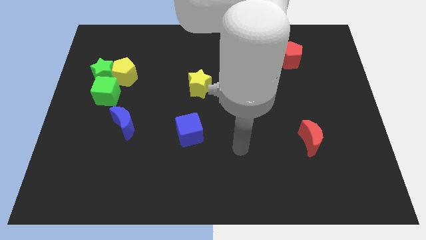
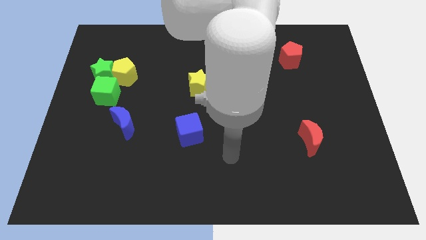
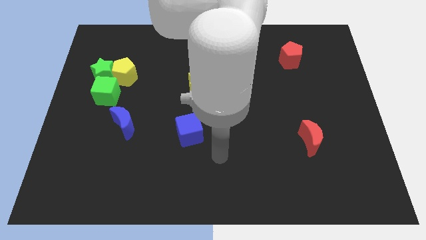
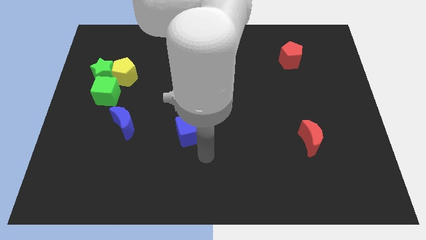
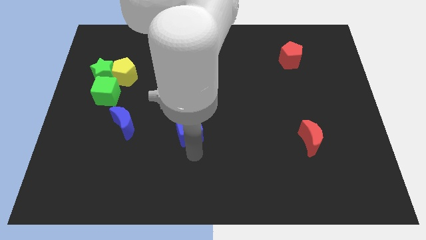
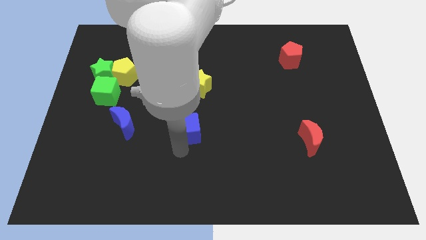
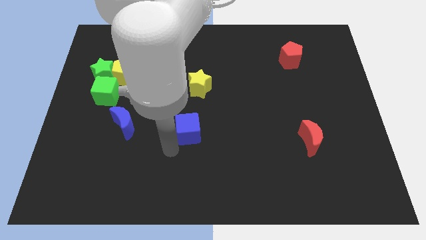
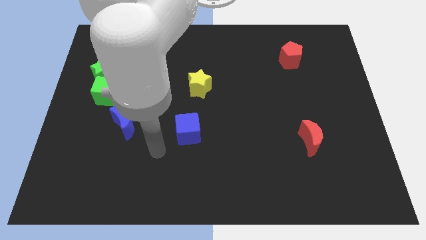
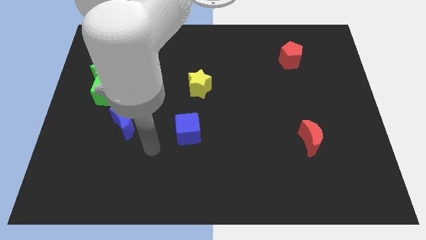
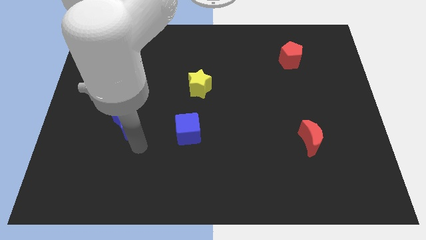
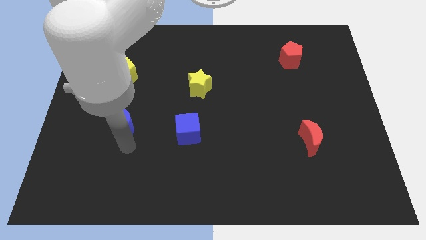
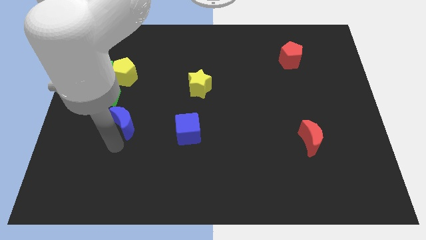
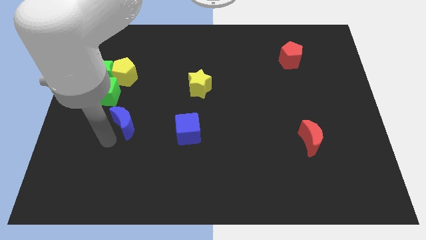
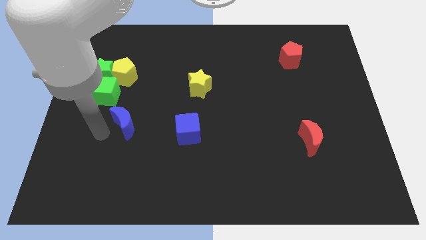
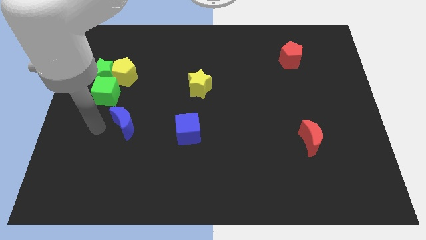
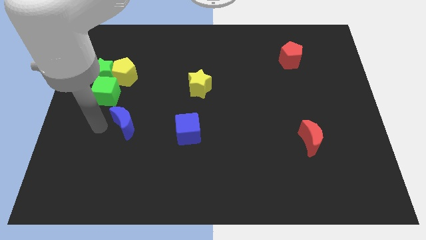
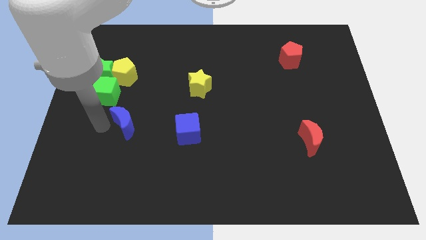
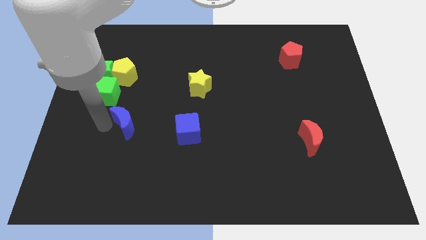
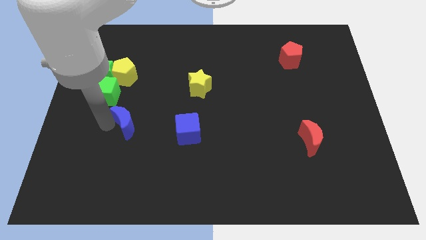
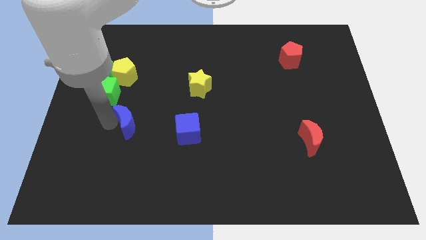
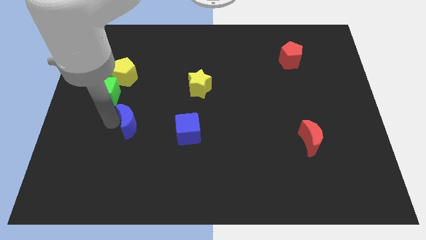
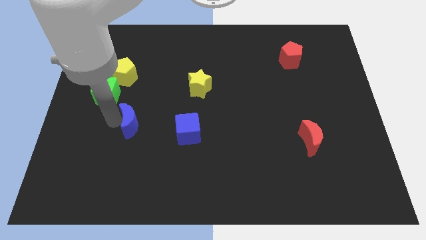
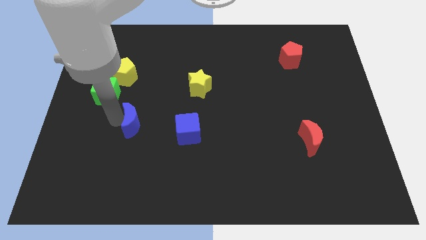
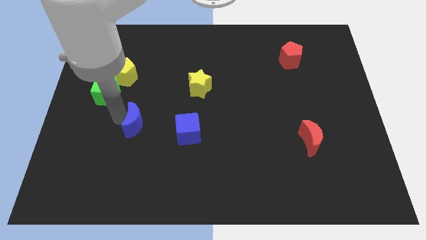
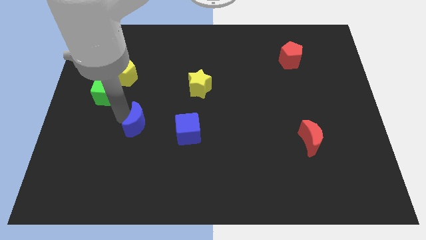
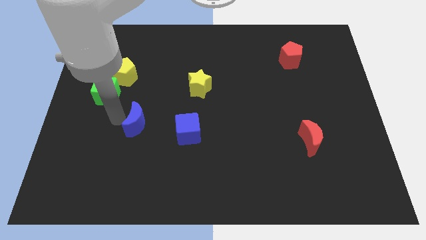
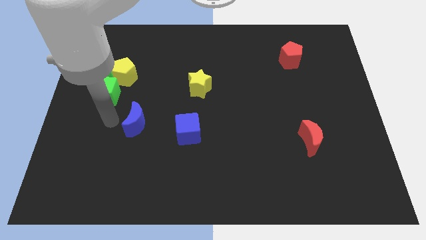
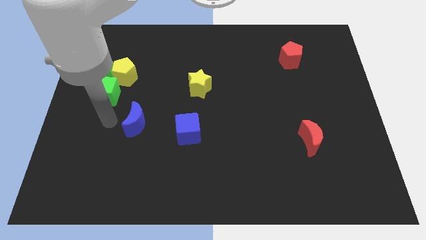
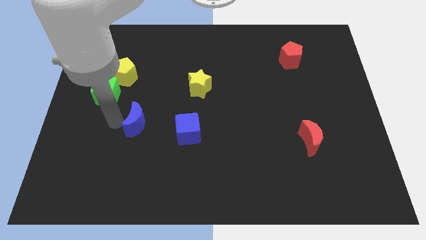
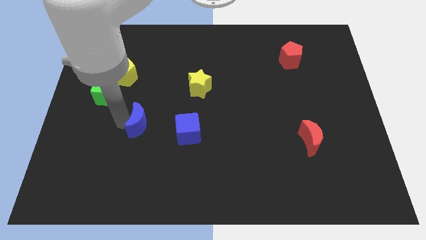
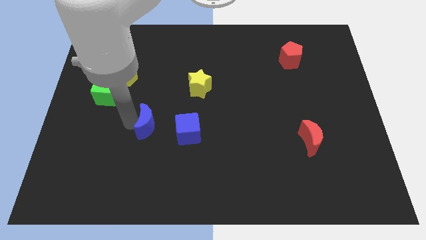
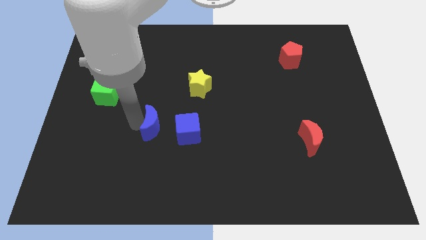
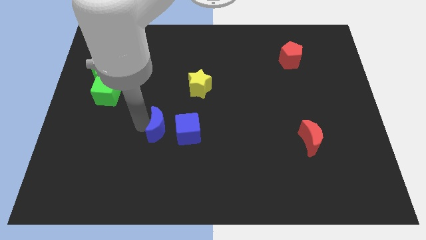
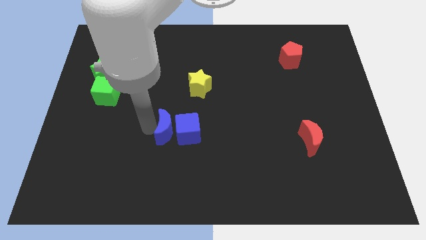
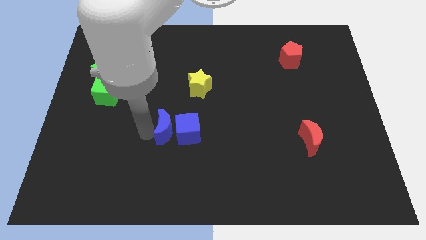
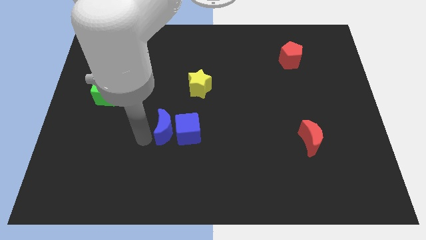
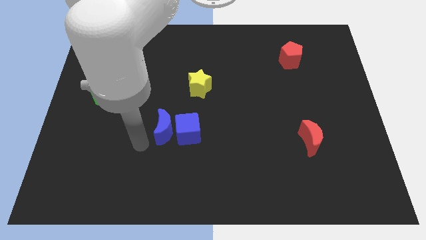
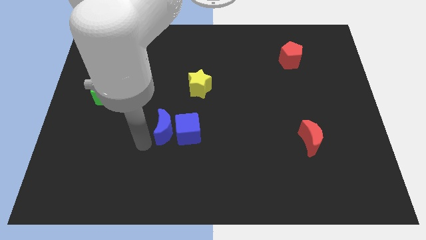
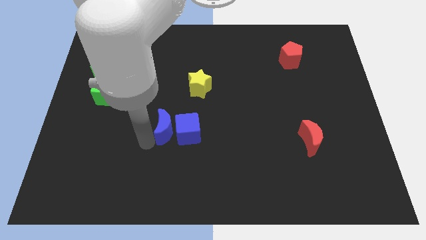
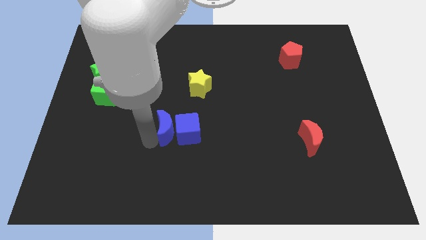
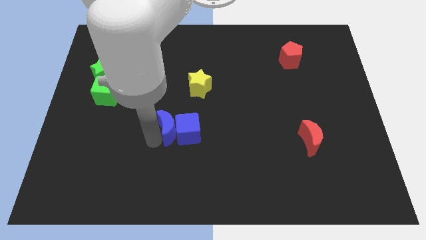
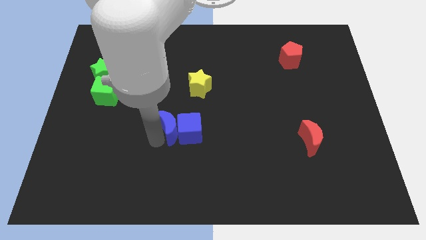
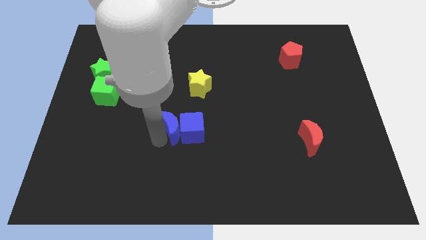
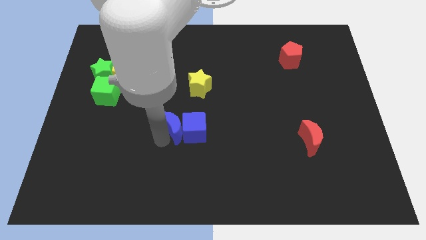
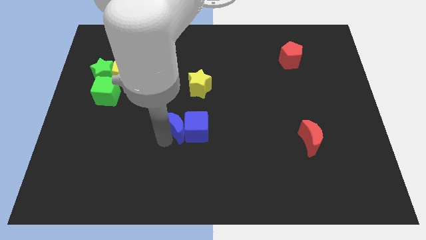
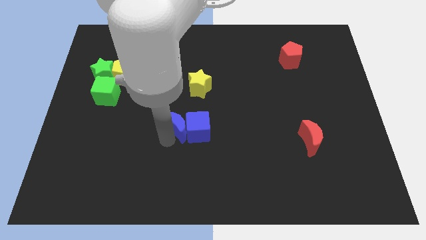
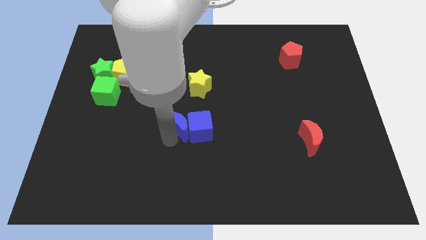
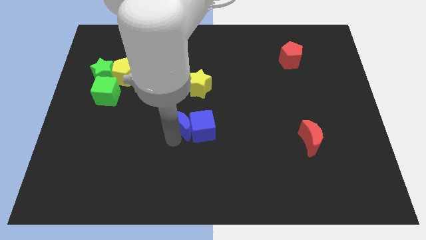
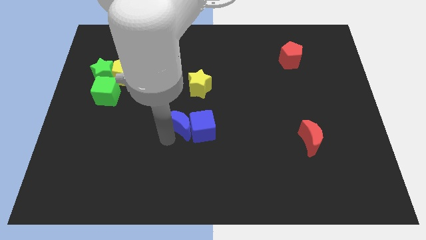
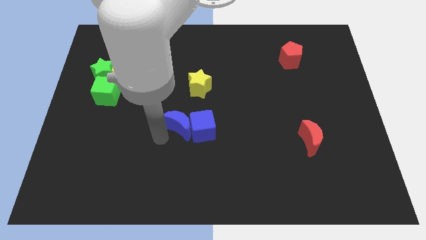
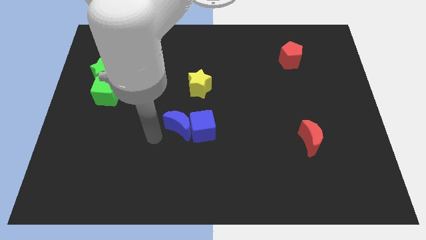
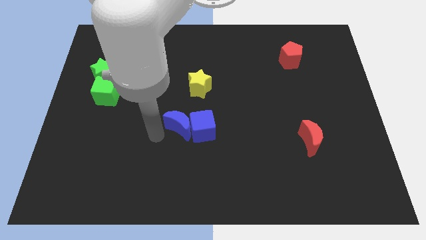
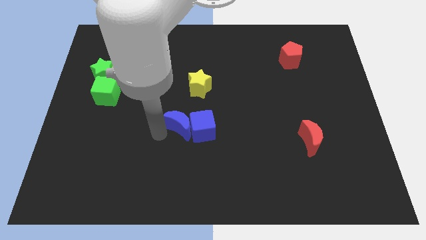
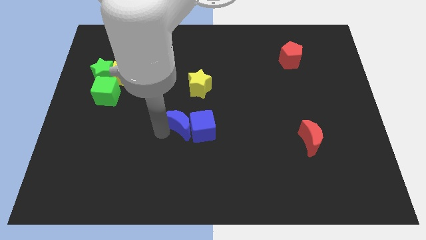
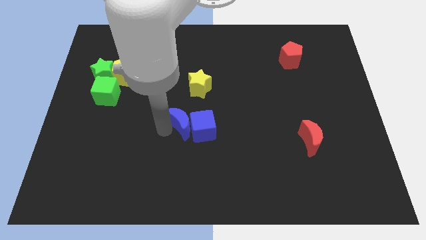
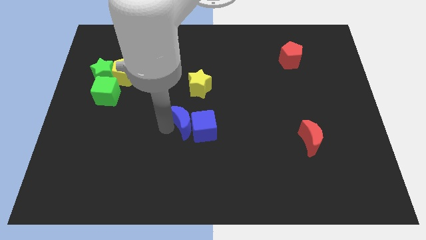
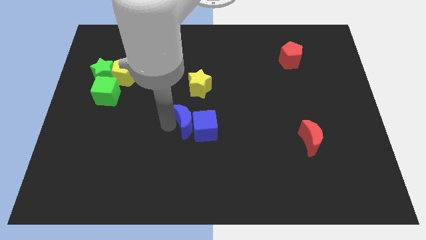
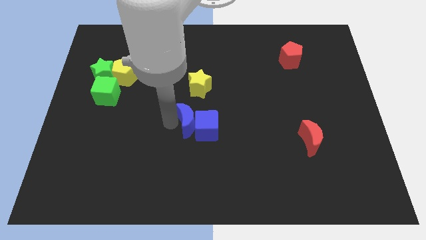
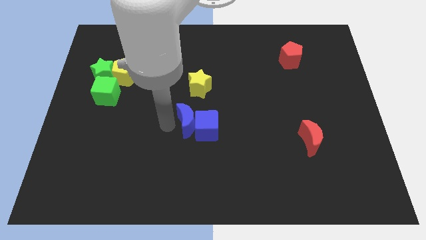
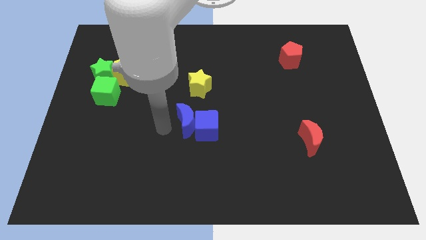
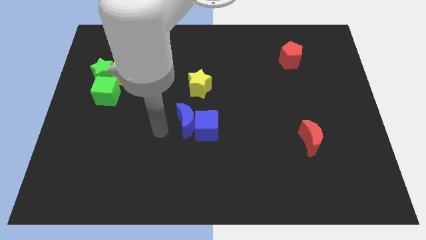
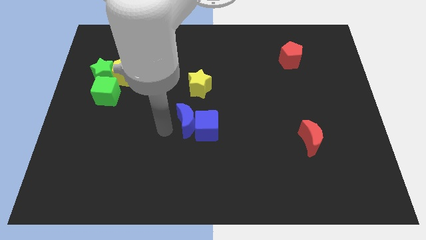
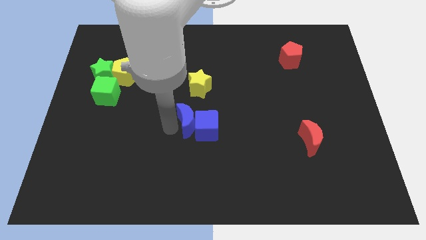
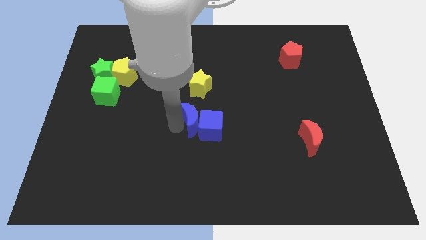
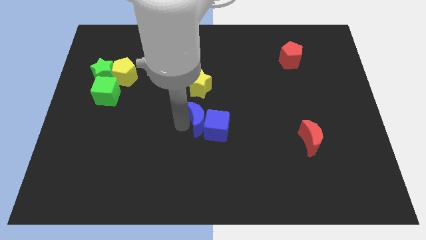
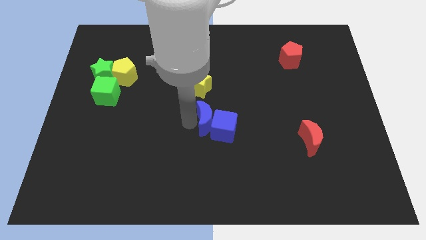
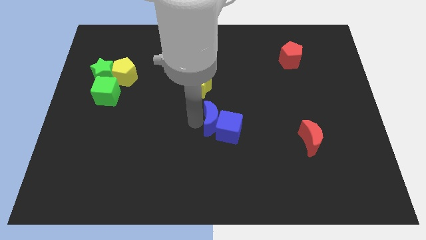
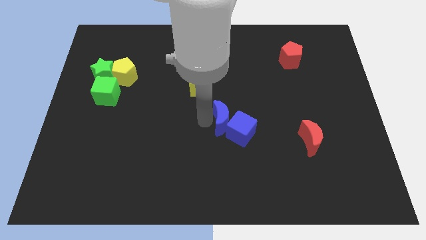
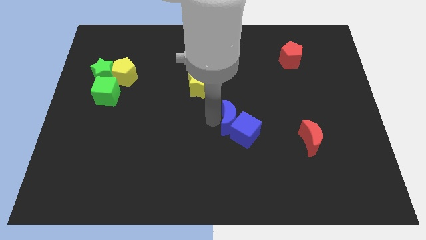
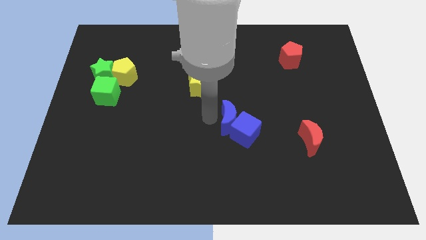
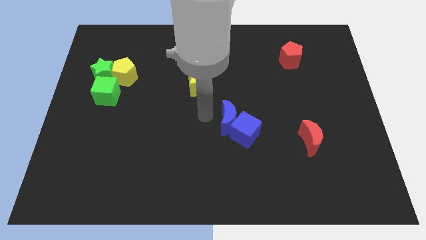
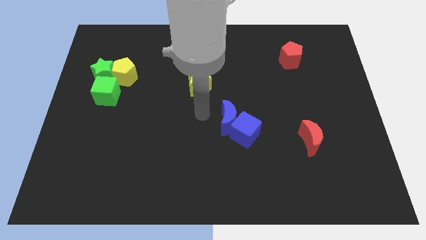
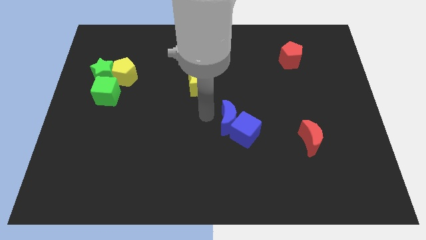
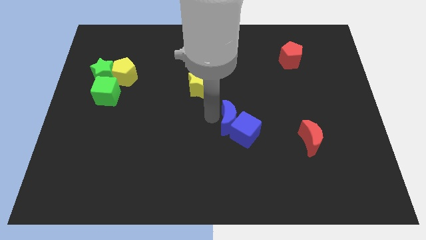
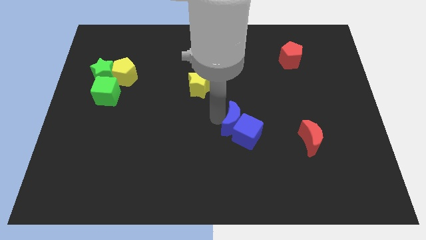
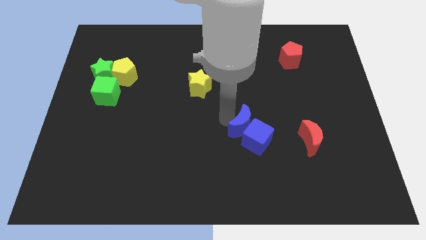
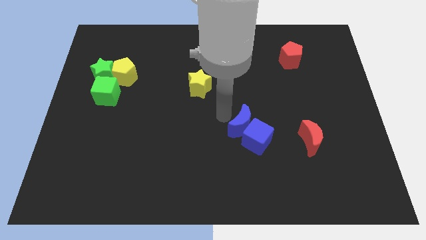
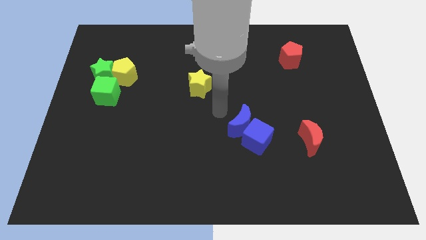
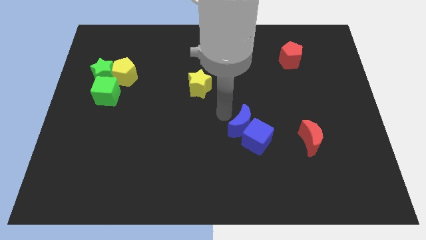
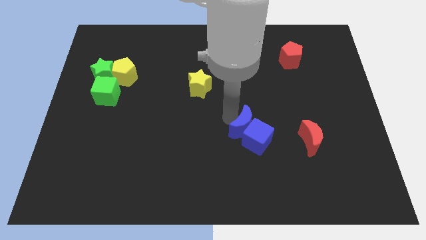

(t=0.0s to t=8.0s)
slide the blue moon to the left of the red moon
